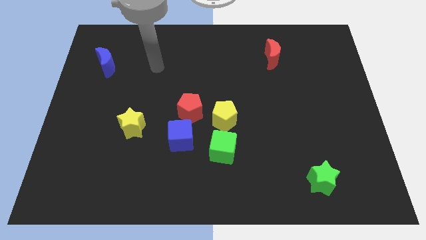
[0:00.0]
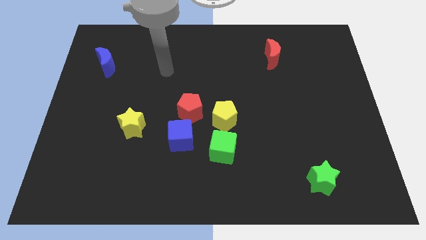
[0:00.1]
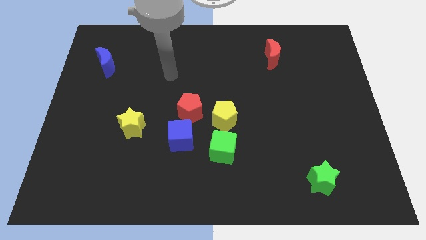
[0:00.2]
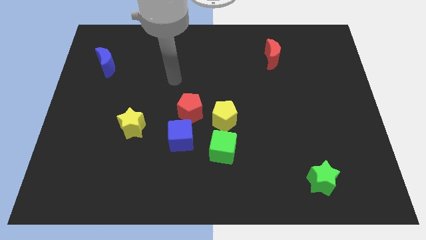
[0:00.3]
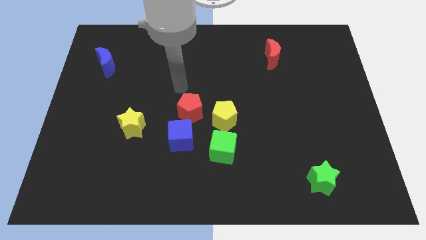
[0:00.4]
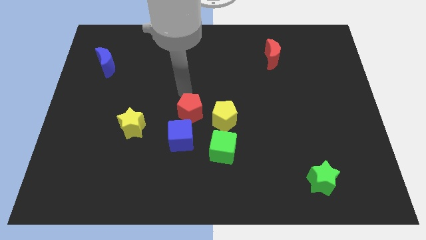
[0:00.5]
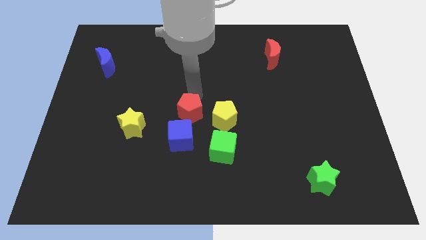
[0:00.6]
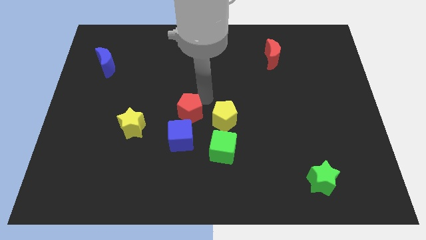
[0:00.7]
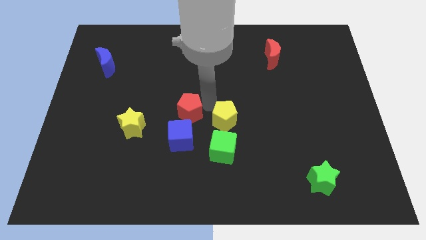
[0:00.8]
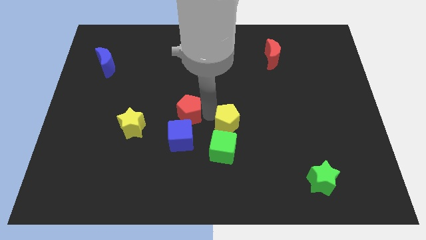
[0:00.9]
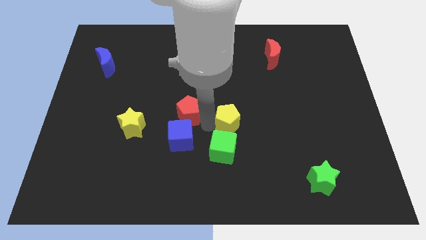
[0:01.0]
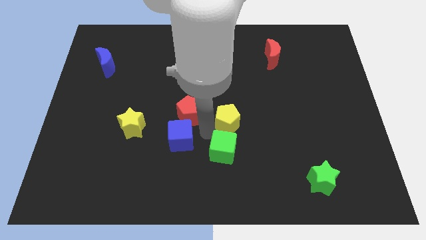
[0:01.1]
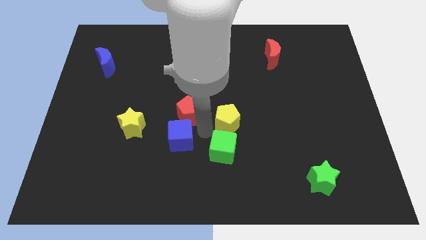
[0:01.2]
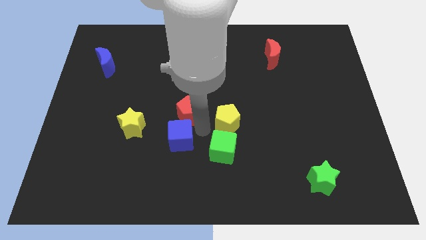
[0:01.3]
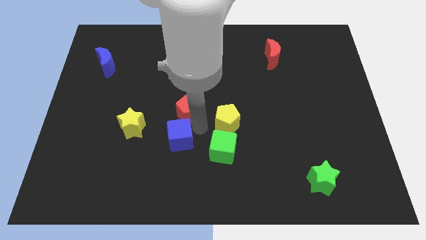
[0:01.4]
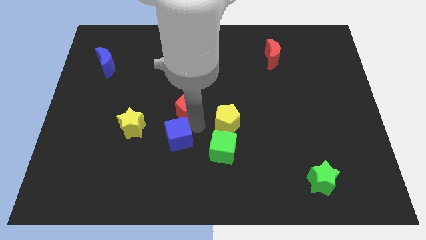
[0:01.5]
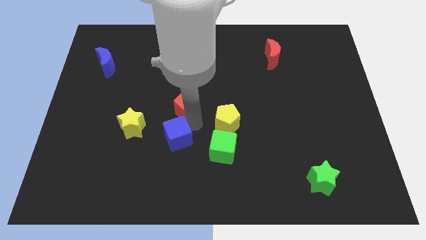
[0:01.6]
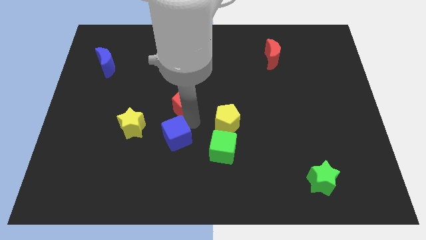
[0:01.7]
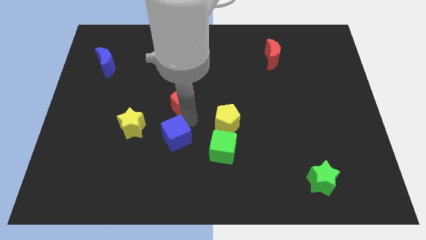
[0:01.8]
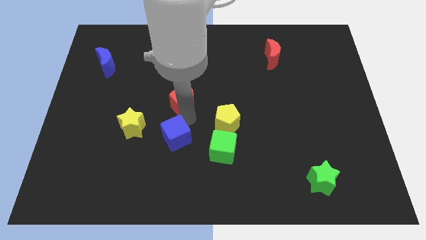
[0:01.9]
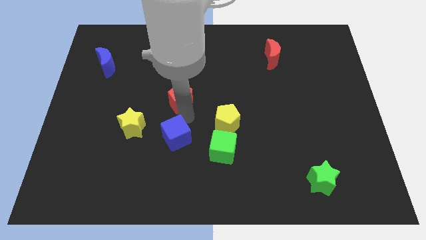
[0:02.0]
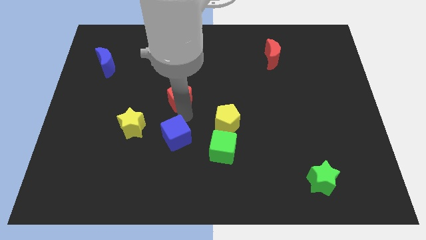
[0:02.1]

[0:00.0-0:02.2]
separate the red pentagon from the blue cube and yellow pentagon

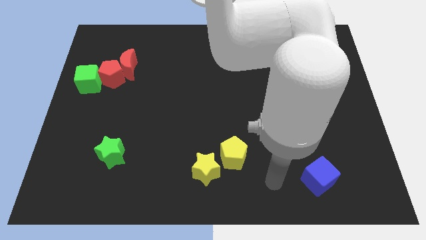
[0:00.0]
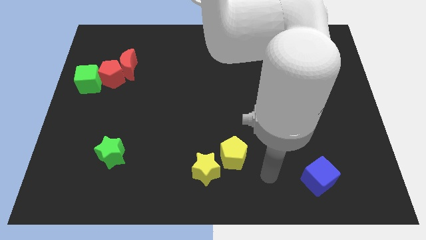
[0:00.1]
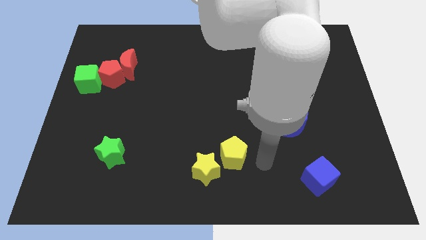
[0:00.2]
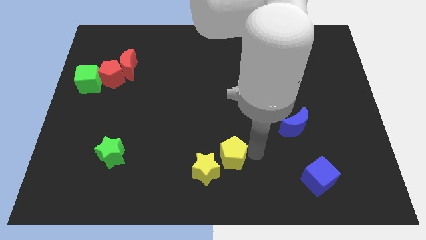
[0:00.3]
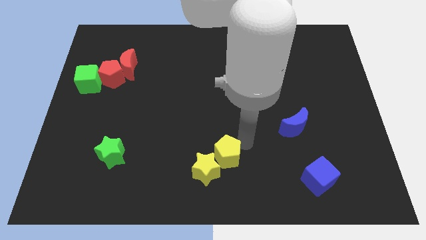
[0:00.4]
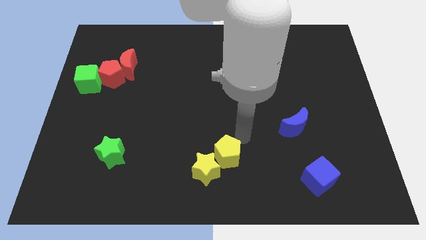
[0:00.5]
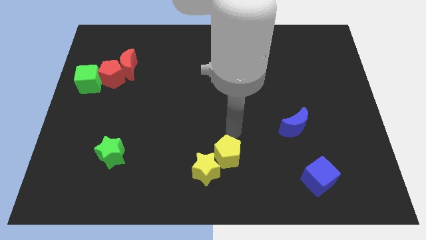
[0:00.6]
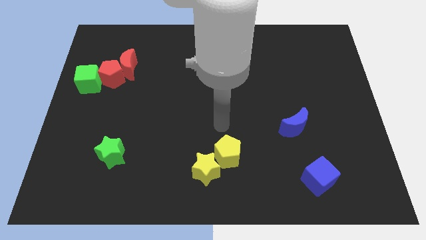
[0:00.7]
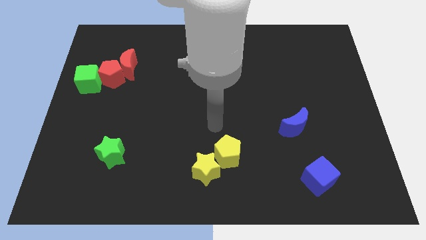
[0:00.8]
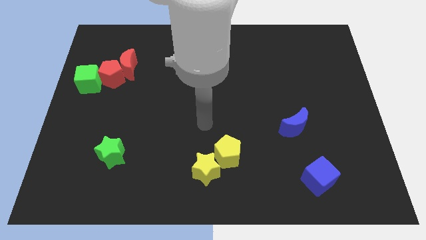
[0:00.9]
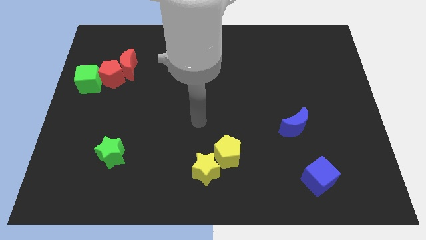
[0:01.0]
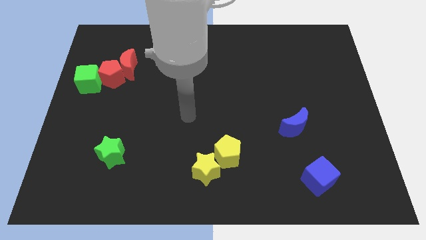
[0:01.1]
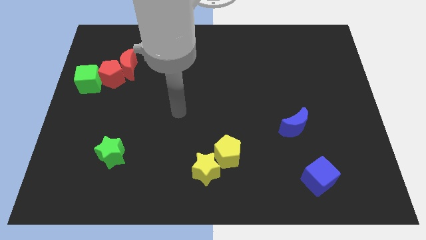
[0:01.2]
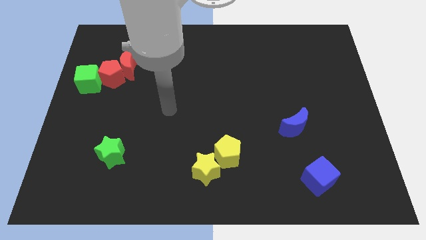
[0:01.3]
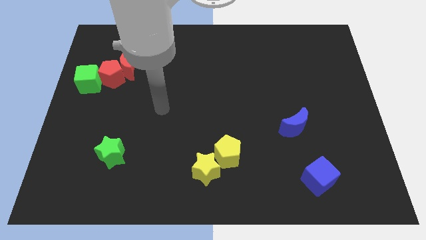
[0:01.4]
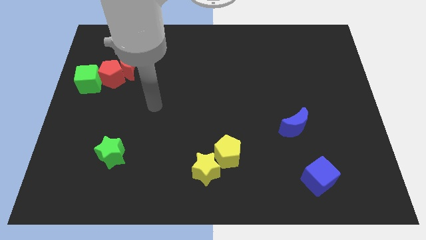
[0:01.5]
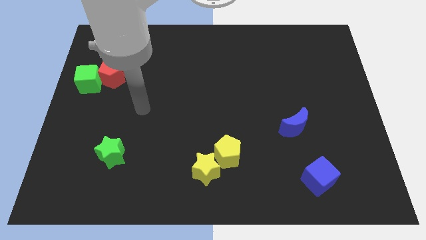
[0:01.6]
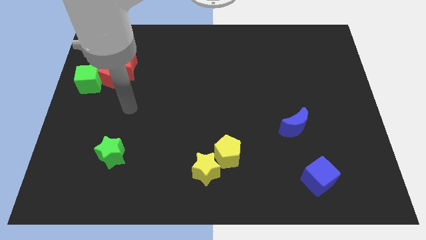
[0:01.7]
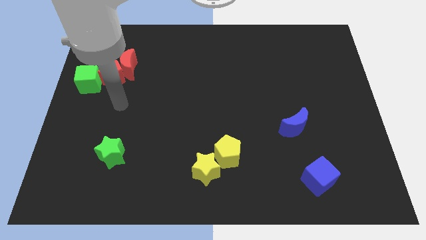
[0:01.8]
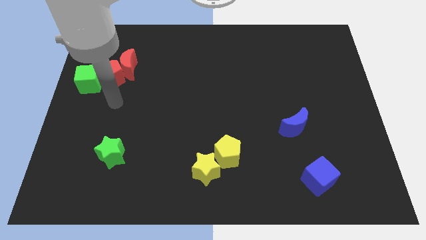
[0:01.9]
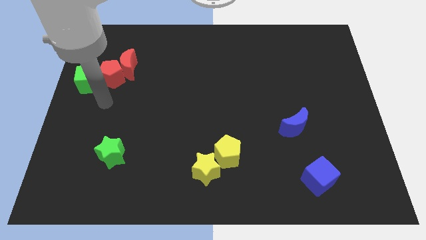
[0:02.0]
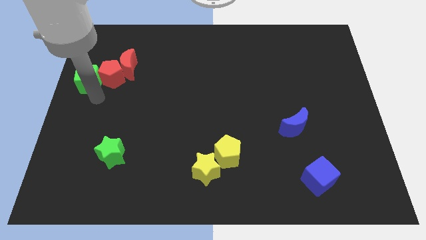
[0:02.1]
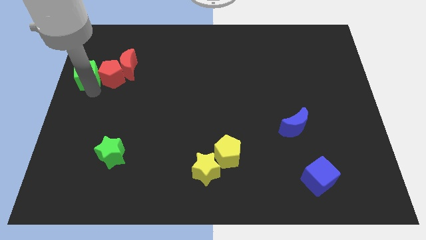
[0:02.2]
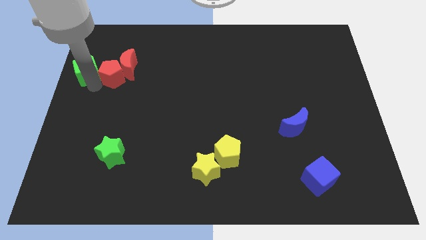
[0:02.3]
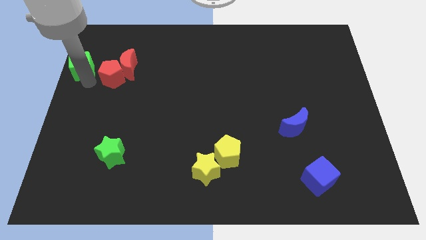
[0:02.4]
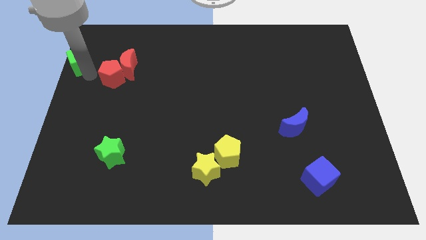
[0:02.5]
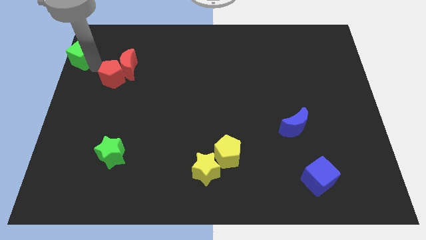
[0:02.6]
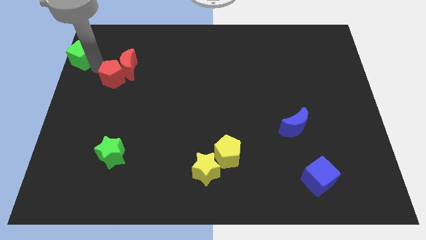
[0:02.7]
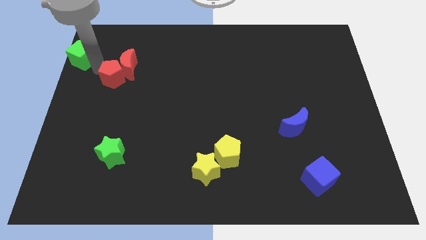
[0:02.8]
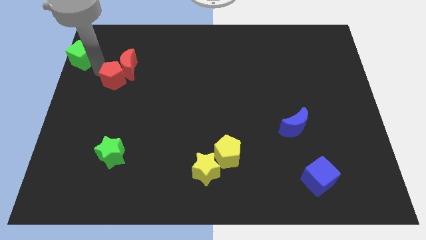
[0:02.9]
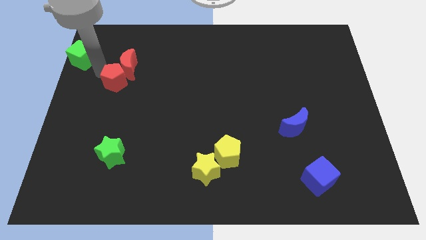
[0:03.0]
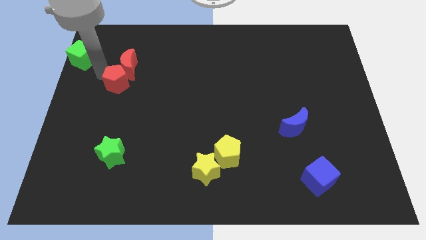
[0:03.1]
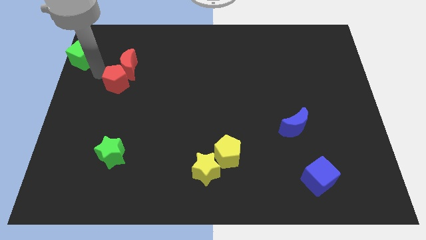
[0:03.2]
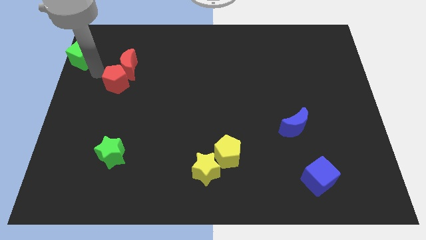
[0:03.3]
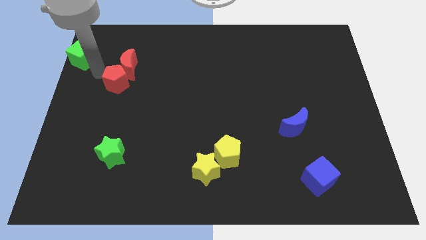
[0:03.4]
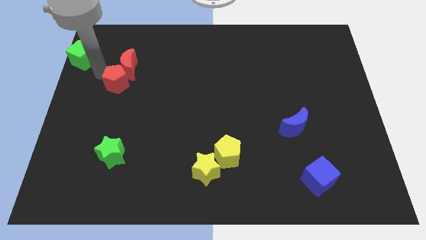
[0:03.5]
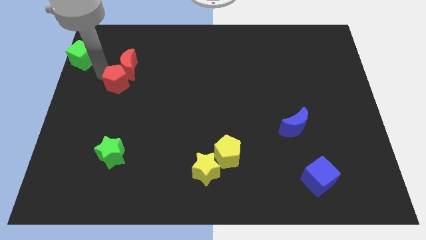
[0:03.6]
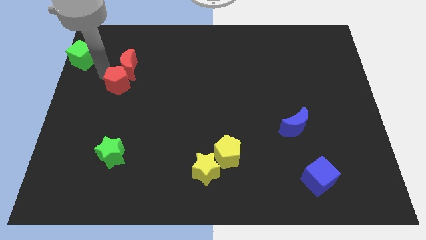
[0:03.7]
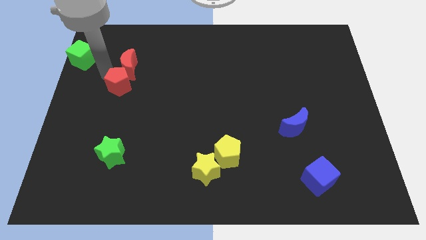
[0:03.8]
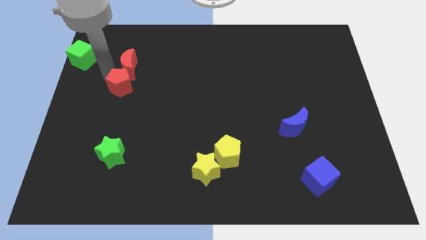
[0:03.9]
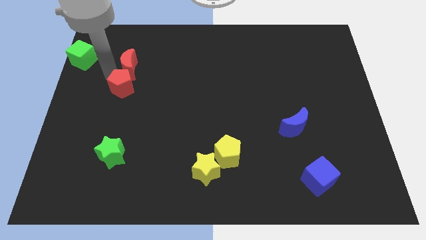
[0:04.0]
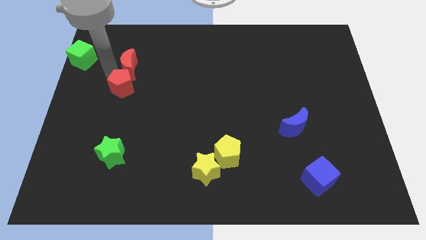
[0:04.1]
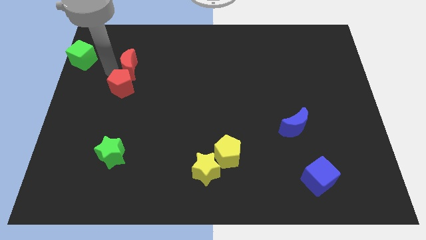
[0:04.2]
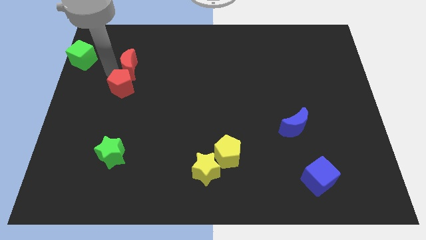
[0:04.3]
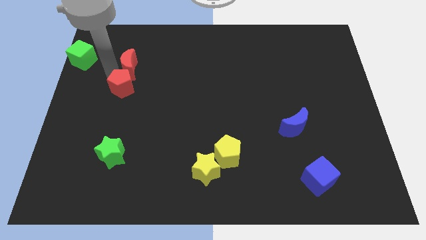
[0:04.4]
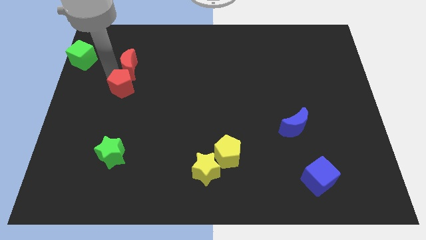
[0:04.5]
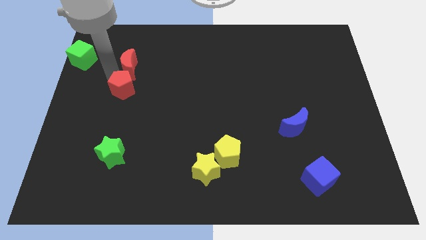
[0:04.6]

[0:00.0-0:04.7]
move the red pentagon away from the red moon and green cube

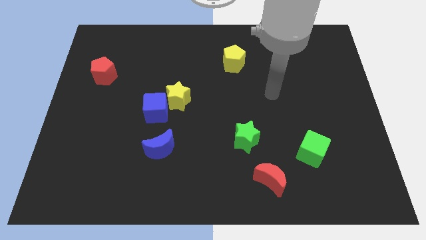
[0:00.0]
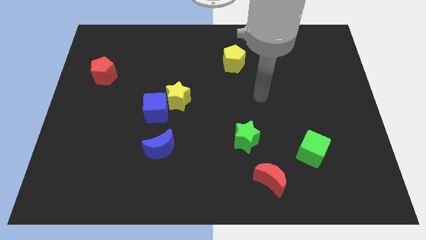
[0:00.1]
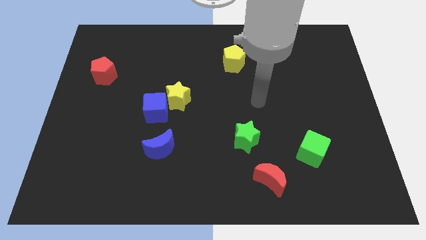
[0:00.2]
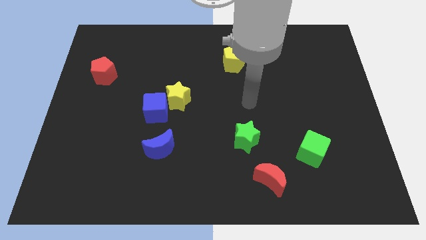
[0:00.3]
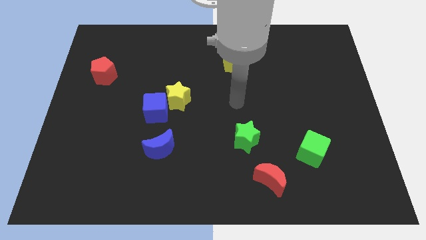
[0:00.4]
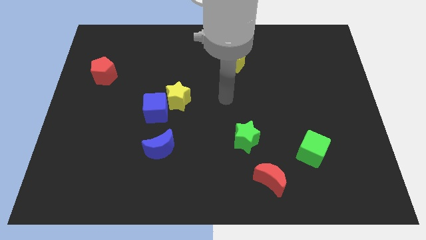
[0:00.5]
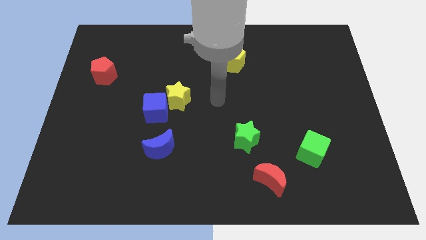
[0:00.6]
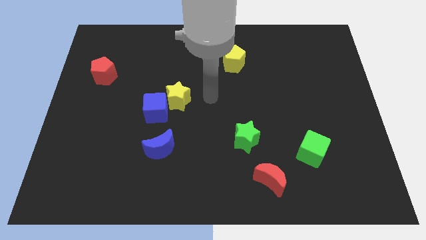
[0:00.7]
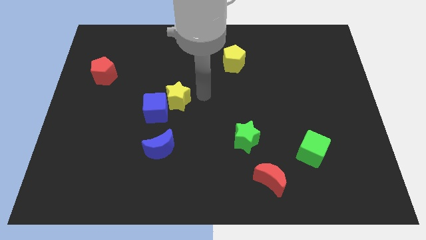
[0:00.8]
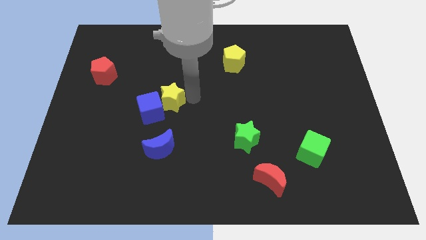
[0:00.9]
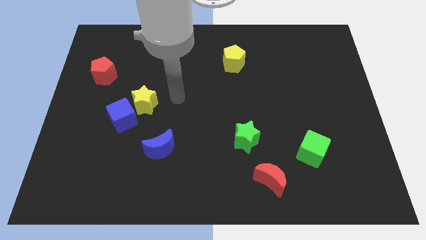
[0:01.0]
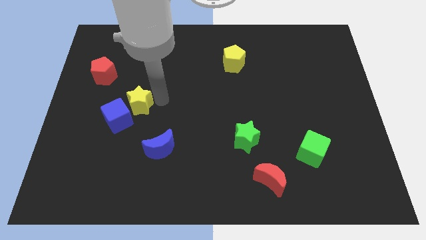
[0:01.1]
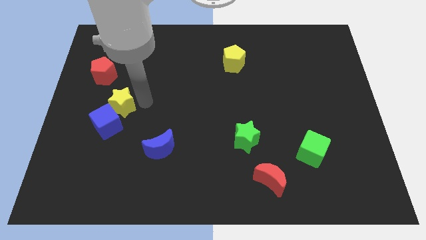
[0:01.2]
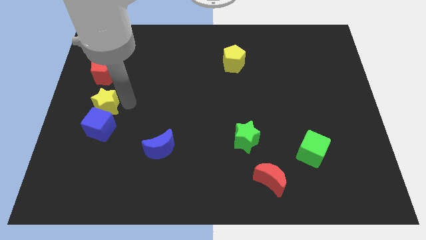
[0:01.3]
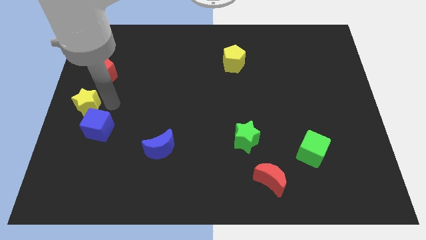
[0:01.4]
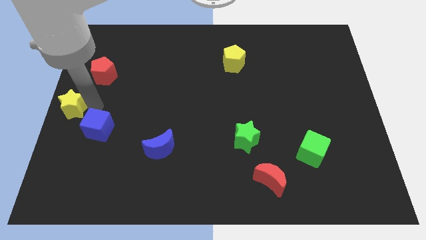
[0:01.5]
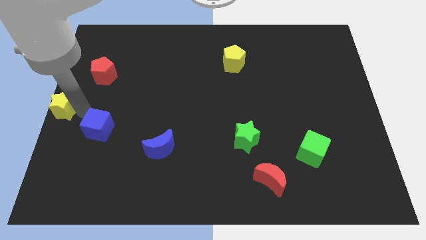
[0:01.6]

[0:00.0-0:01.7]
pull the blue cube apart from the yellow star

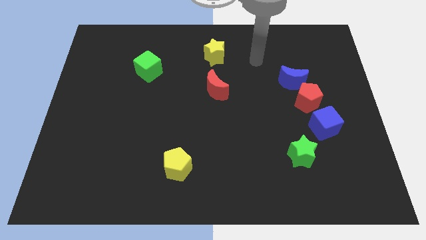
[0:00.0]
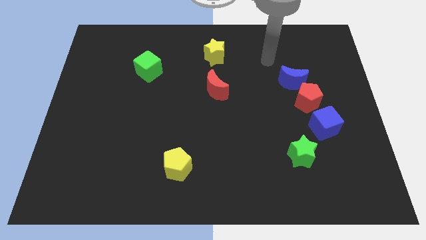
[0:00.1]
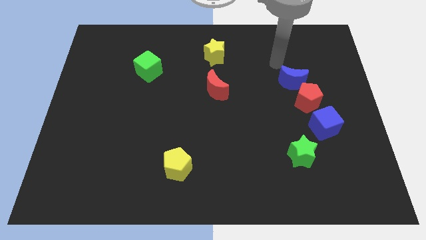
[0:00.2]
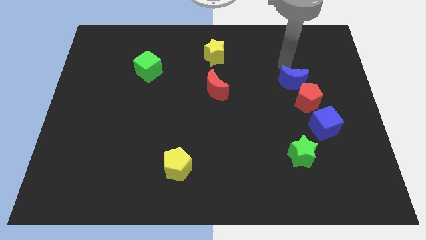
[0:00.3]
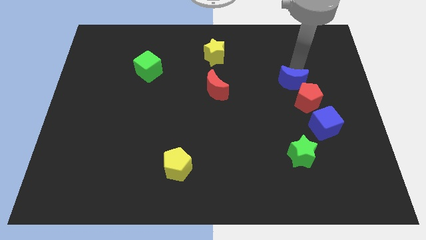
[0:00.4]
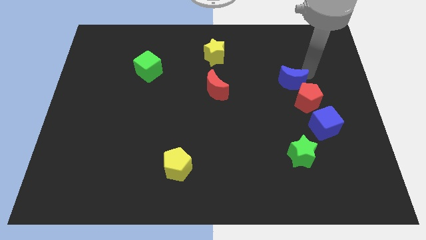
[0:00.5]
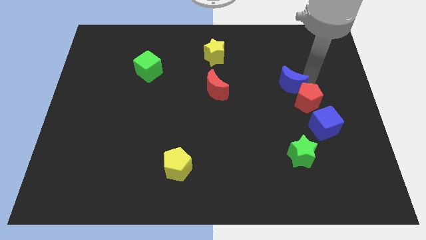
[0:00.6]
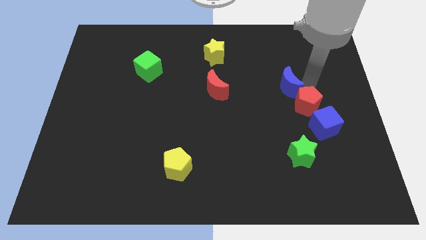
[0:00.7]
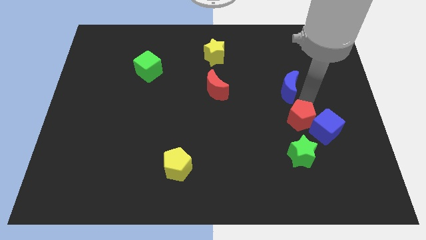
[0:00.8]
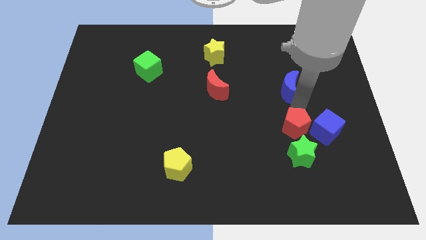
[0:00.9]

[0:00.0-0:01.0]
pull the blue moon apart from the red pentagon
